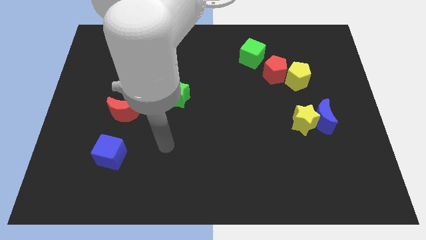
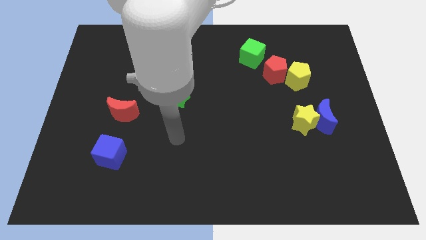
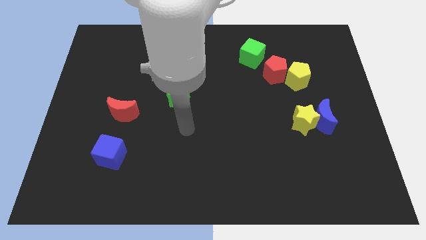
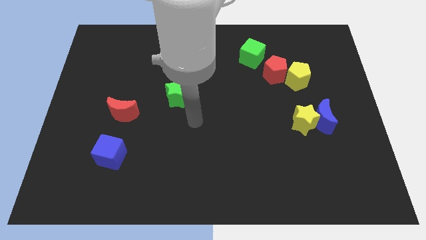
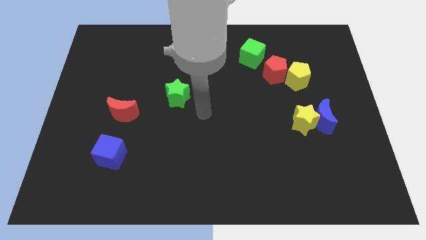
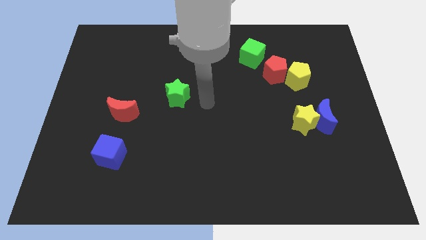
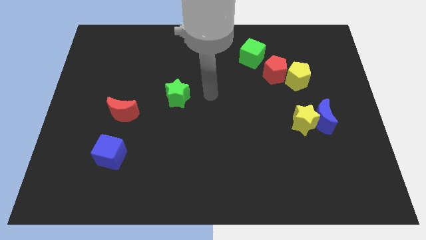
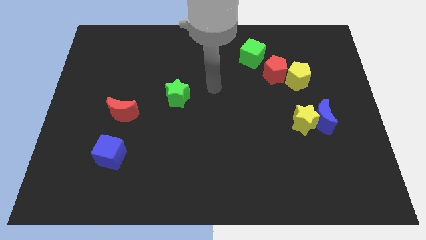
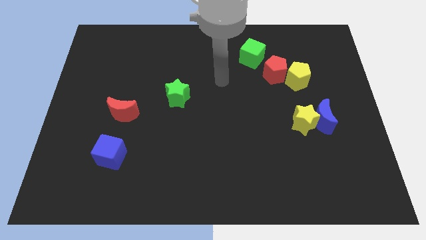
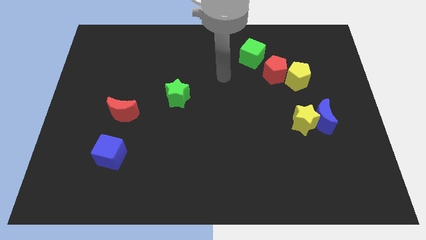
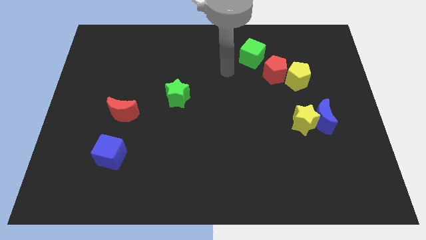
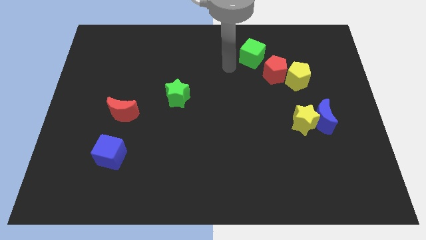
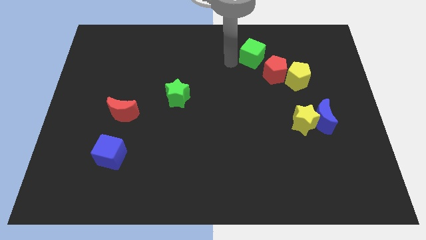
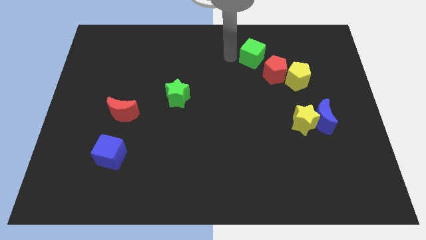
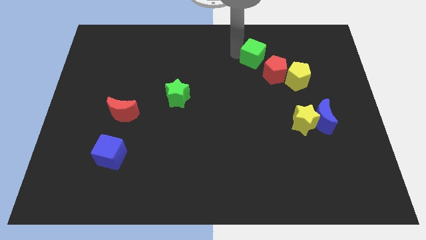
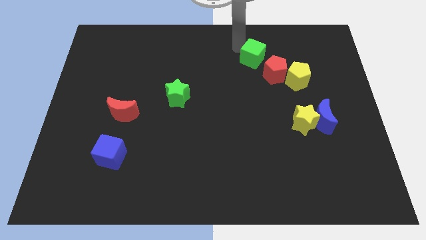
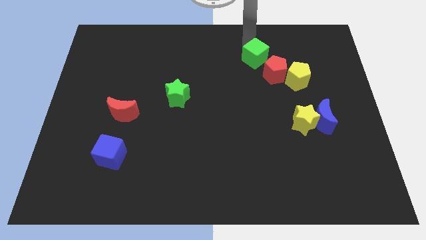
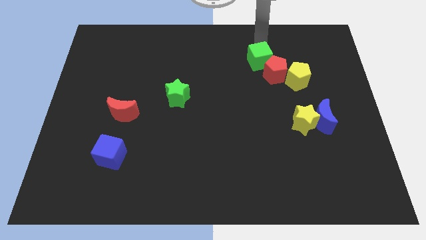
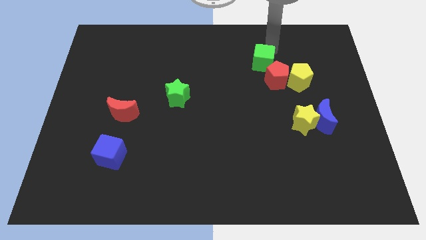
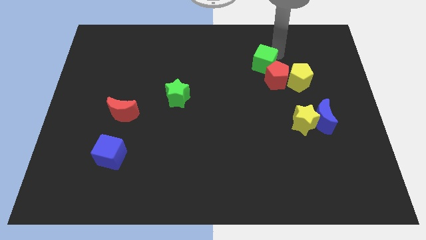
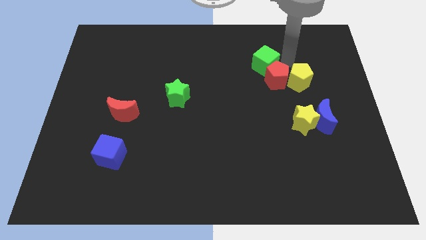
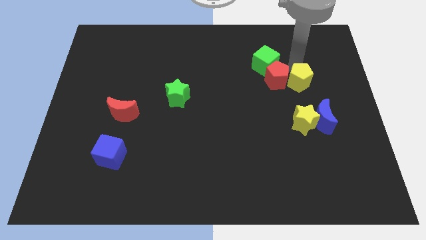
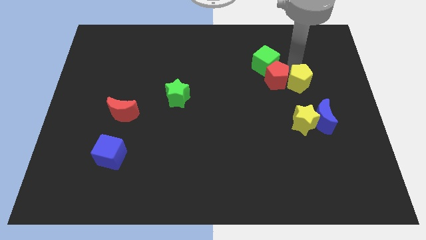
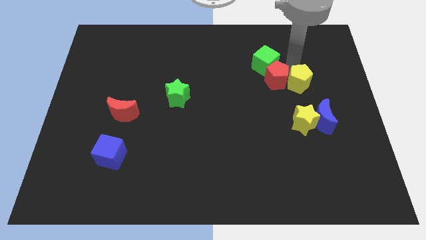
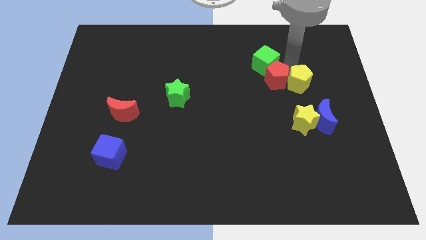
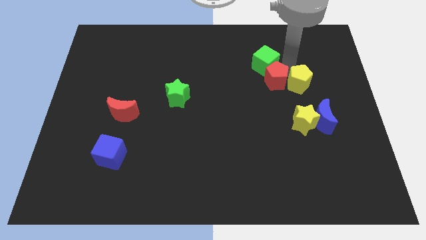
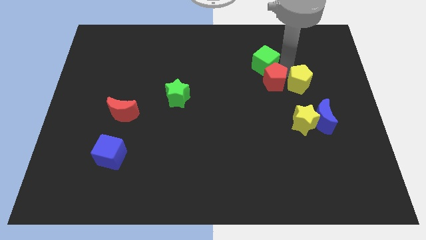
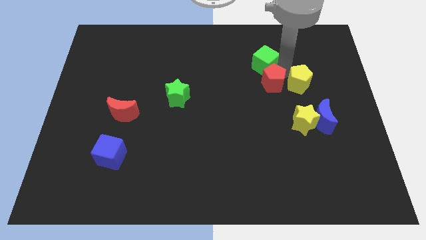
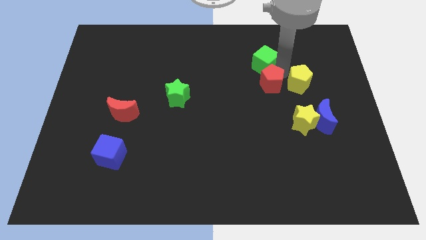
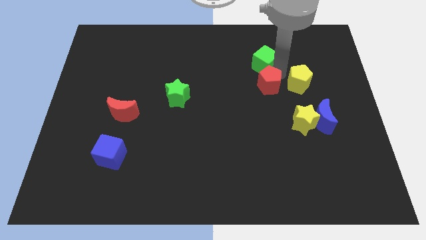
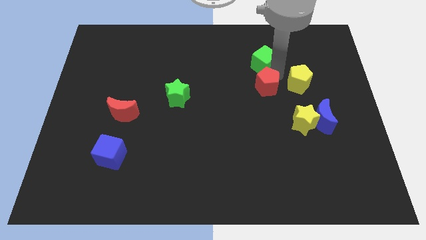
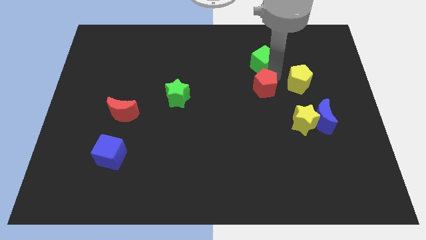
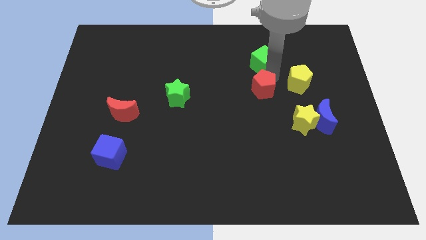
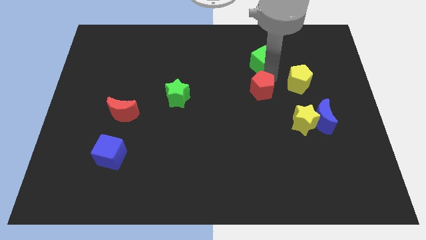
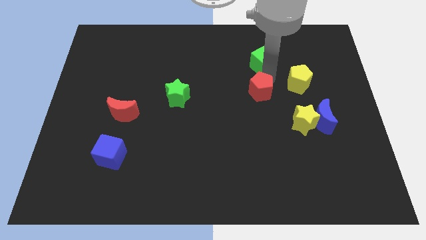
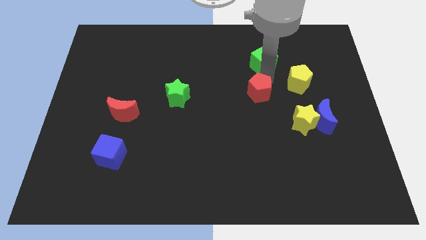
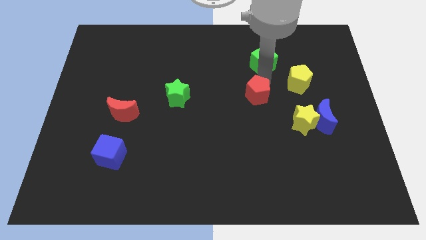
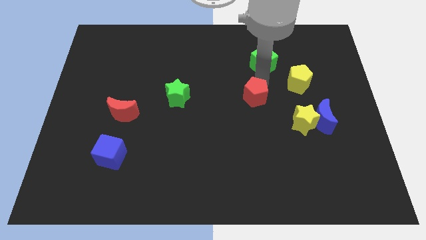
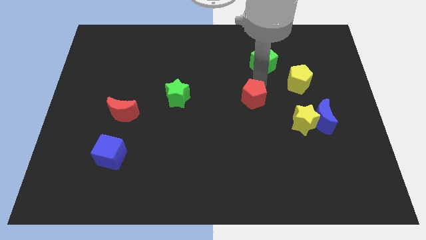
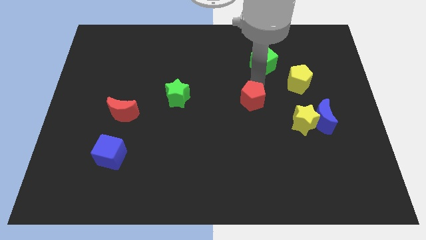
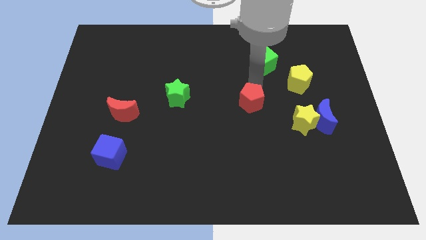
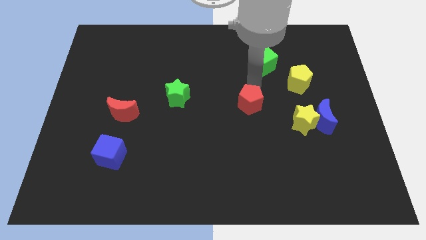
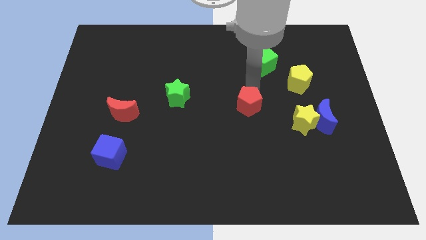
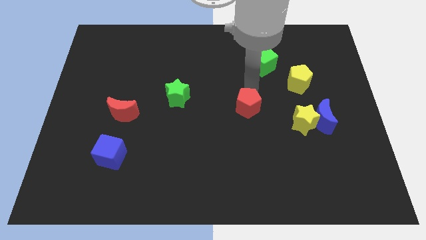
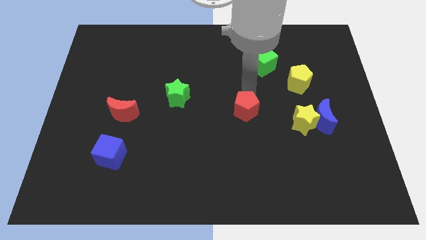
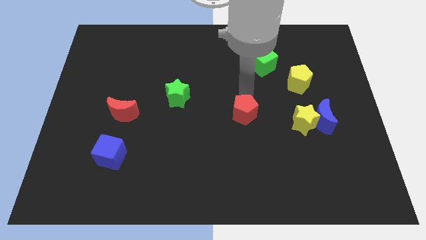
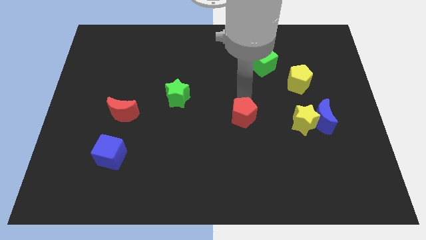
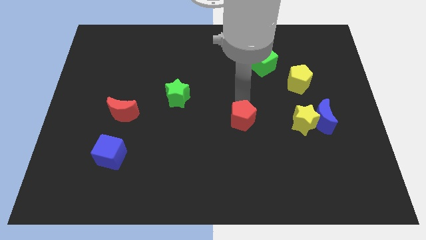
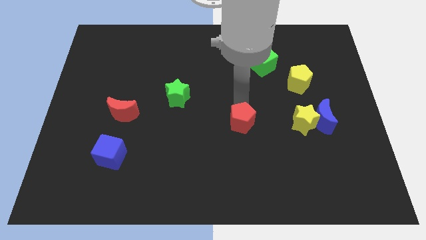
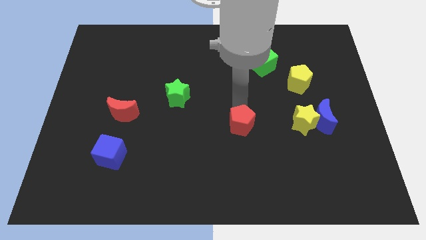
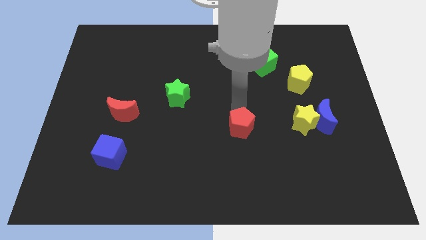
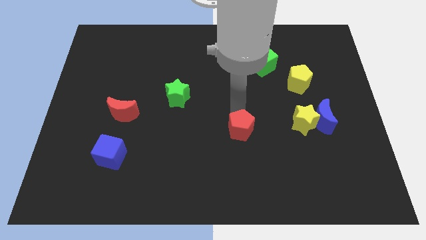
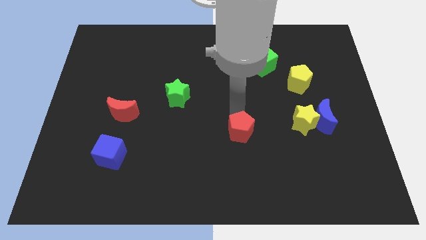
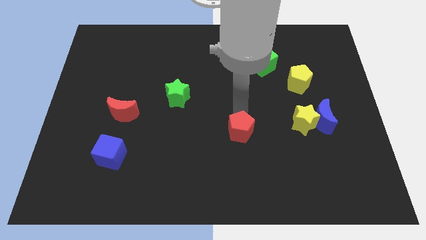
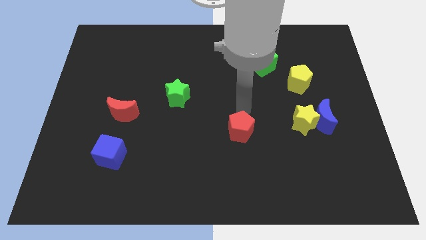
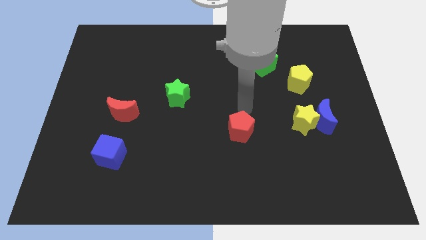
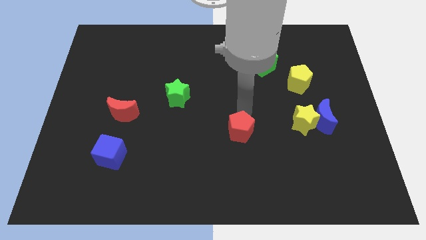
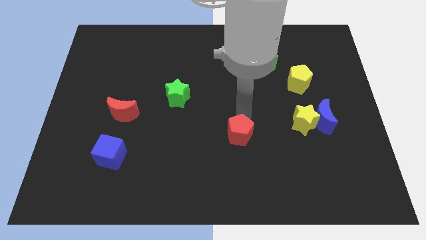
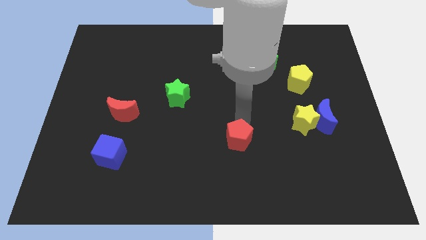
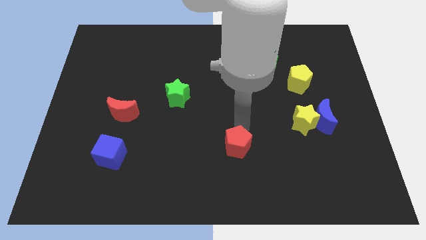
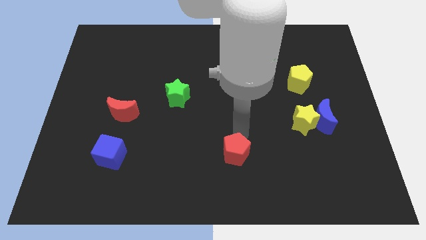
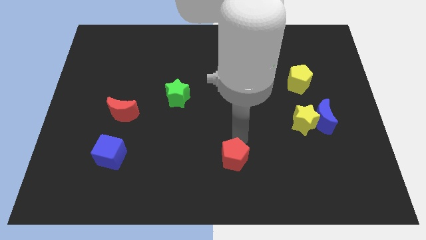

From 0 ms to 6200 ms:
put the red pentagon to the bottom side

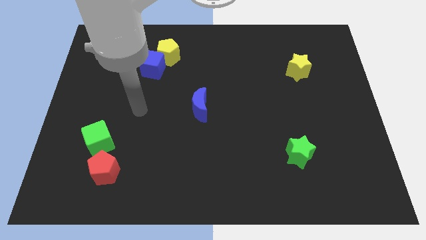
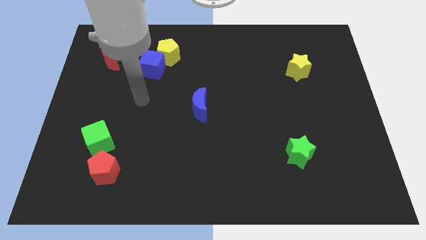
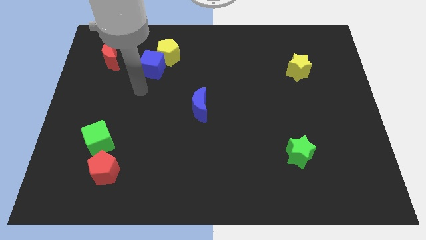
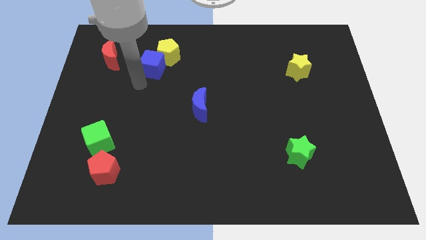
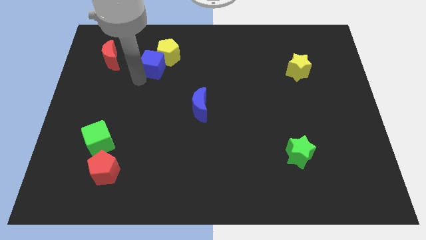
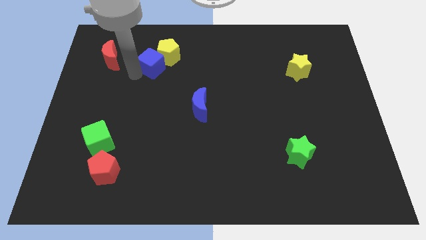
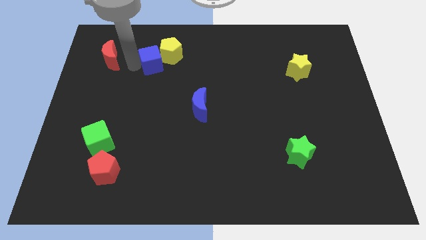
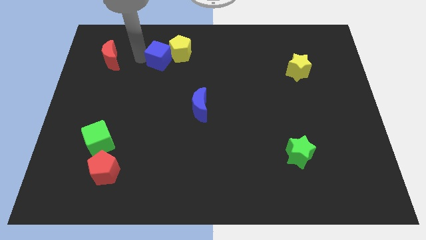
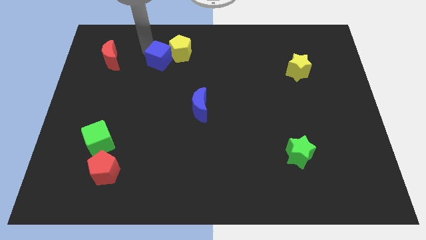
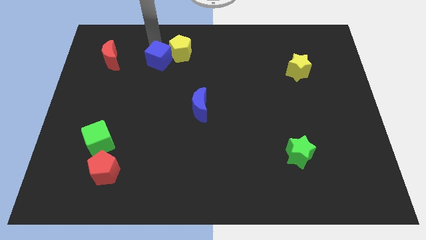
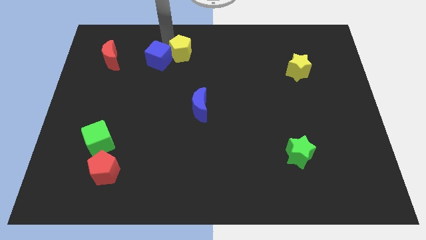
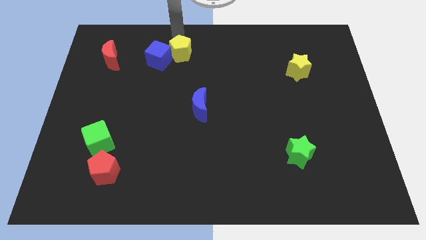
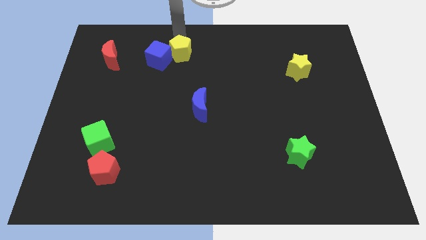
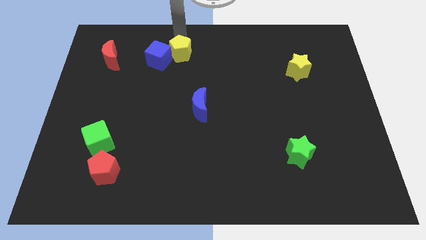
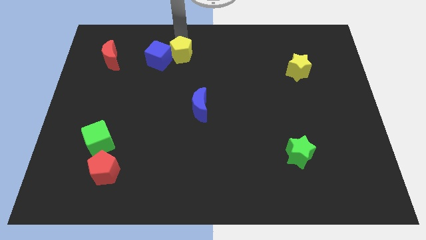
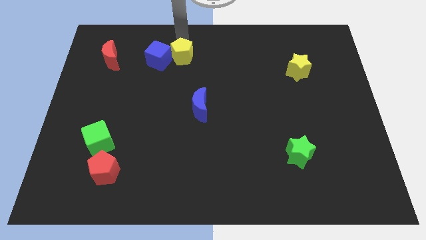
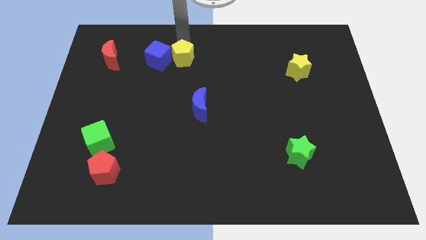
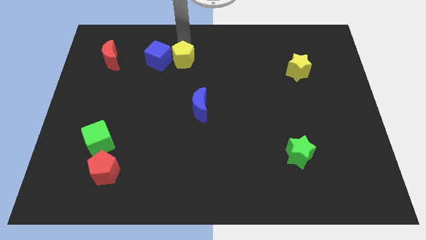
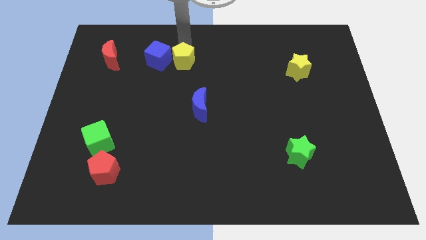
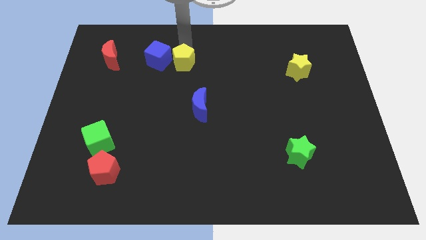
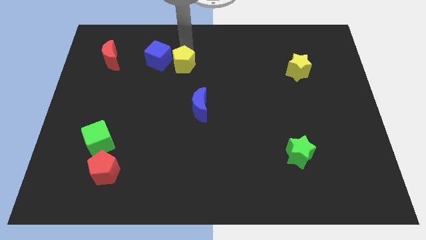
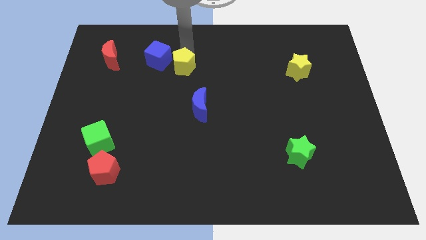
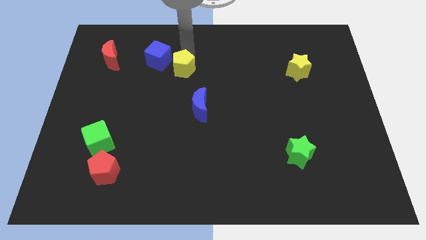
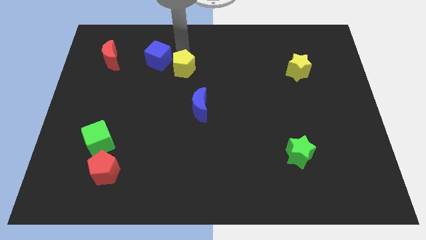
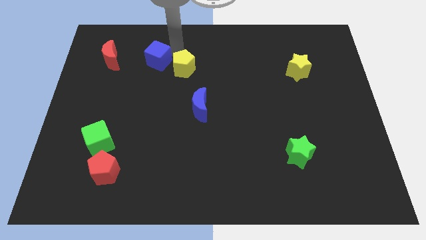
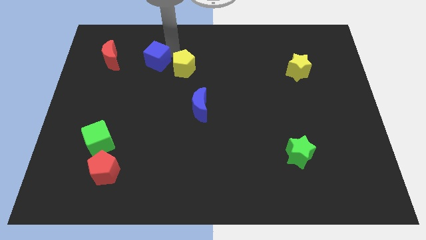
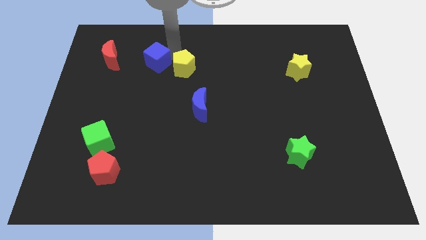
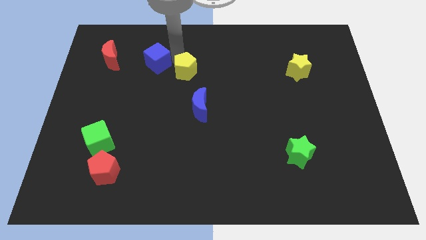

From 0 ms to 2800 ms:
put the yellow pentagon to the middle of the board
